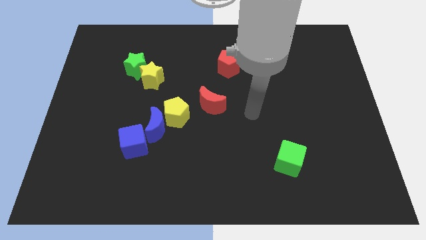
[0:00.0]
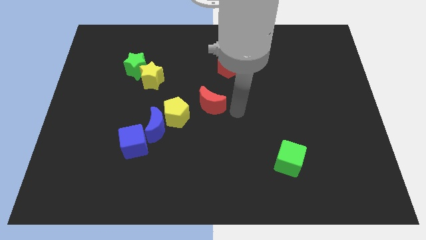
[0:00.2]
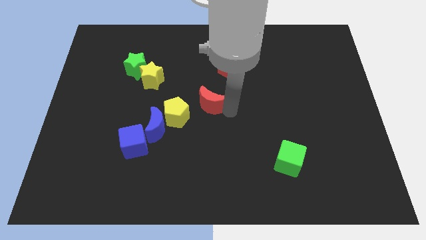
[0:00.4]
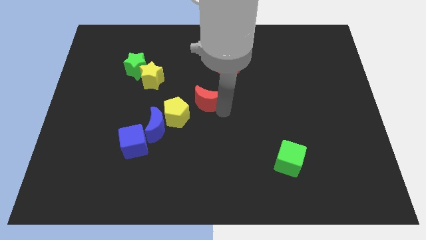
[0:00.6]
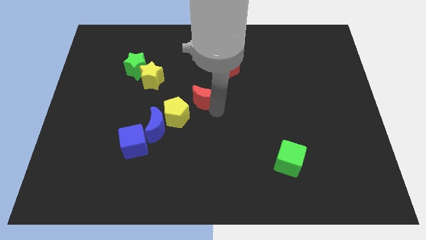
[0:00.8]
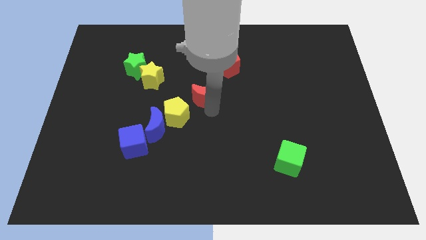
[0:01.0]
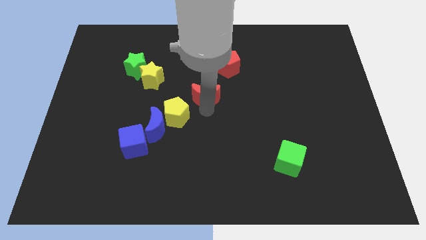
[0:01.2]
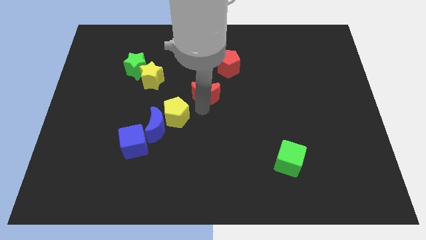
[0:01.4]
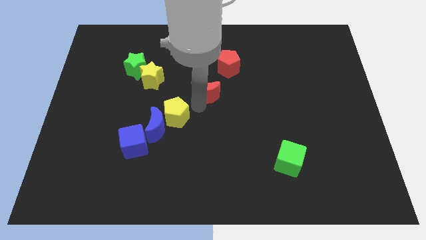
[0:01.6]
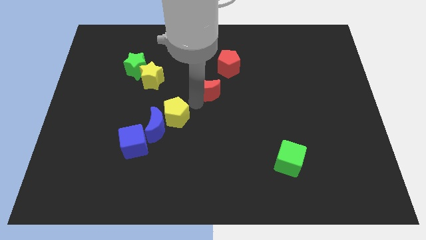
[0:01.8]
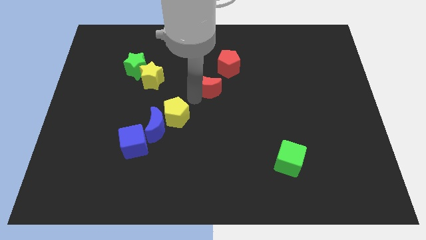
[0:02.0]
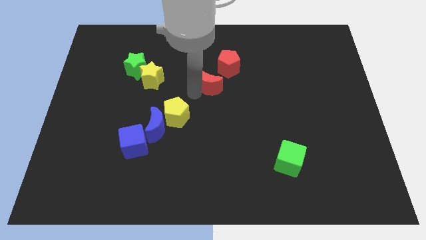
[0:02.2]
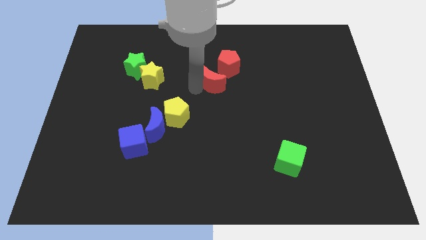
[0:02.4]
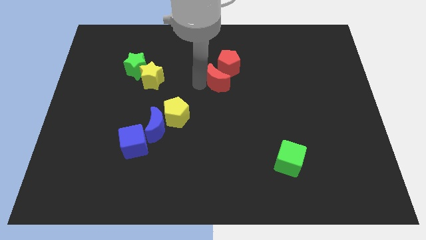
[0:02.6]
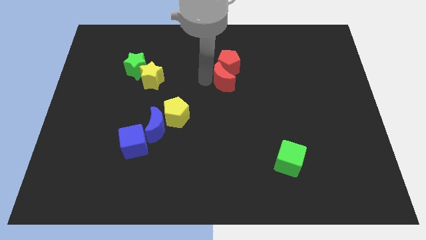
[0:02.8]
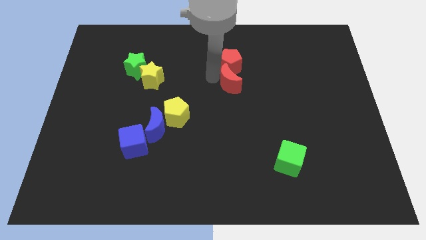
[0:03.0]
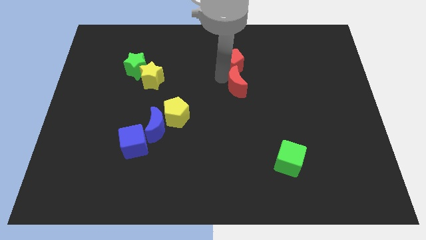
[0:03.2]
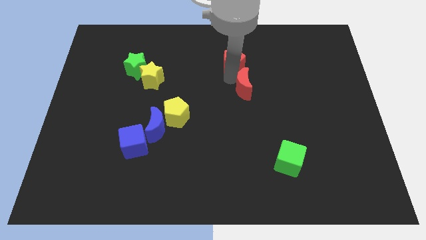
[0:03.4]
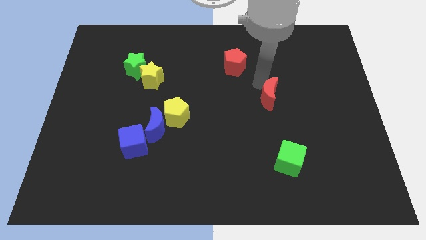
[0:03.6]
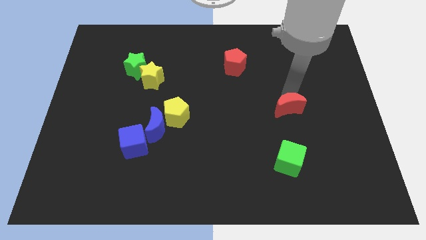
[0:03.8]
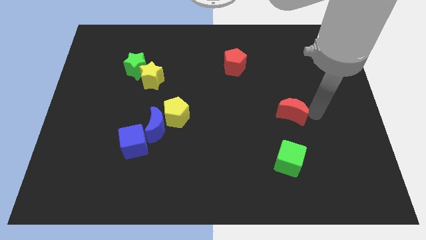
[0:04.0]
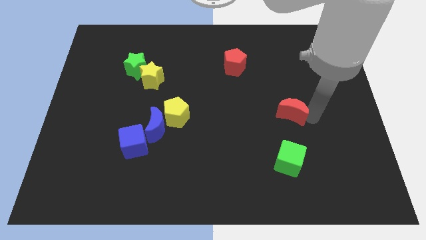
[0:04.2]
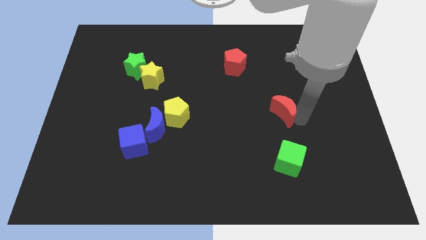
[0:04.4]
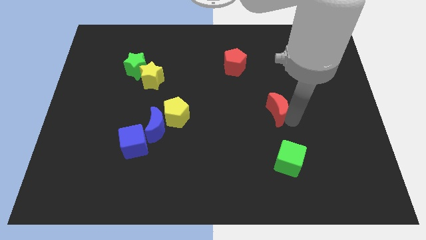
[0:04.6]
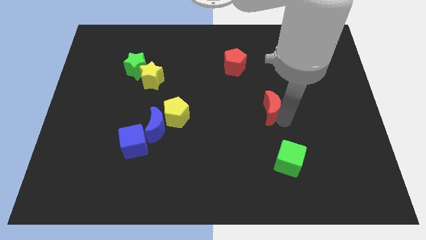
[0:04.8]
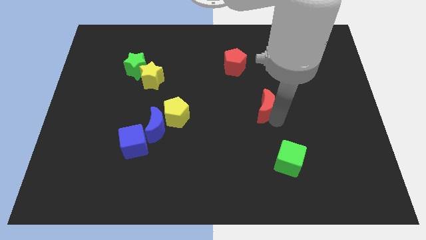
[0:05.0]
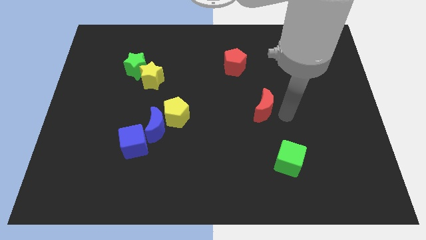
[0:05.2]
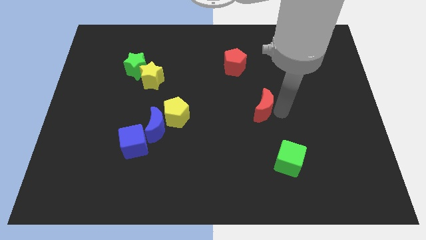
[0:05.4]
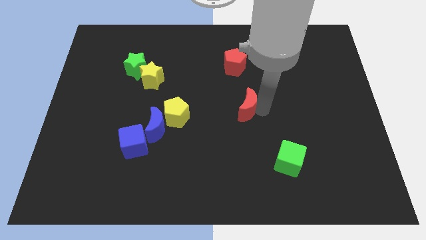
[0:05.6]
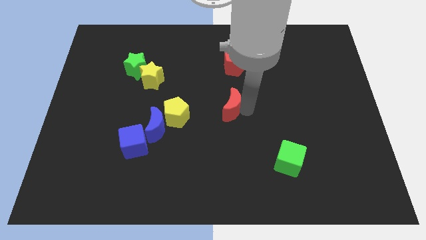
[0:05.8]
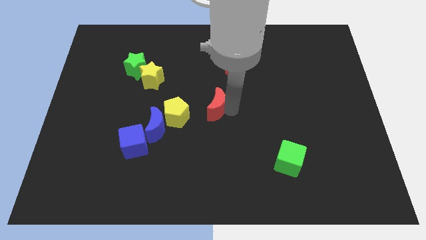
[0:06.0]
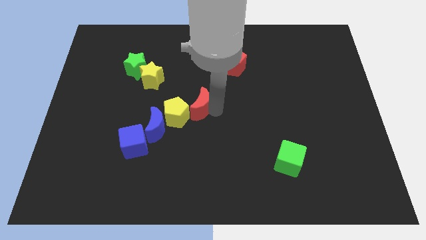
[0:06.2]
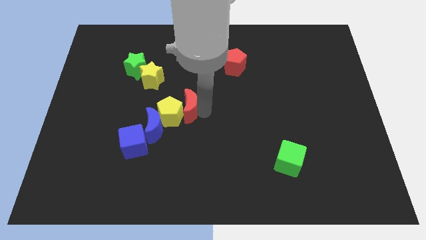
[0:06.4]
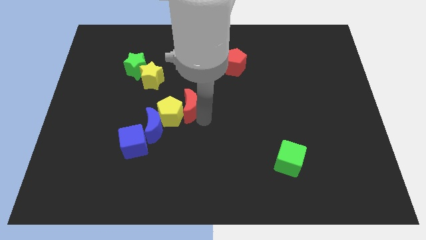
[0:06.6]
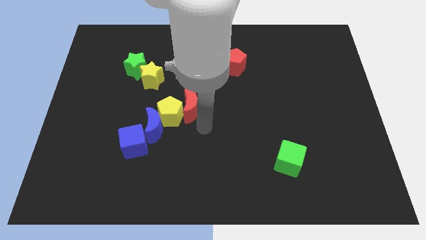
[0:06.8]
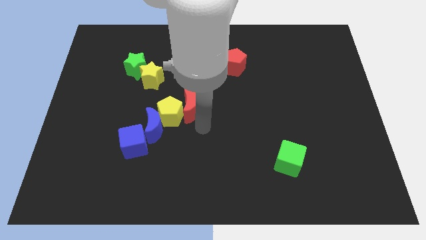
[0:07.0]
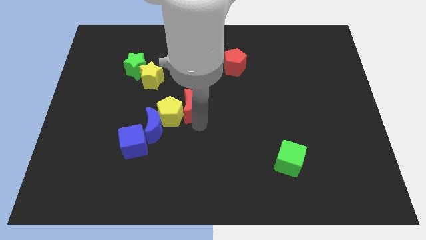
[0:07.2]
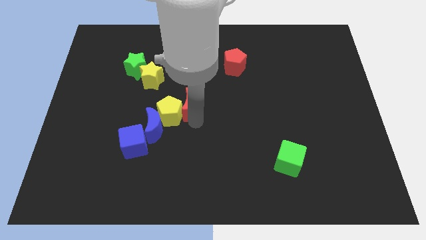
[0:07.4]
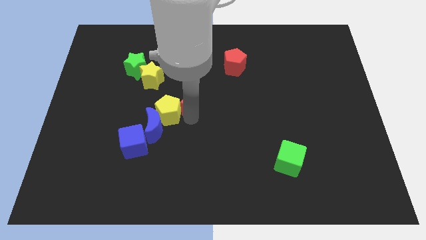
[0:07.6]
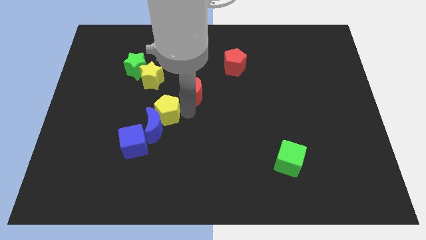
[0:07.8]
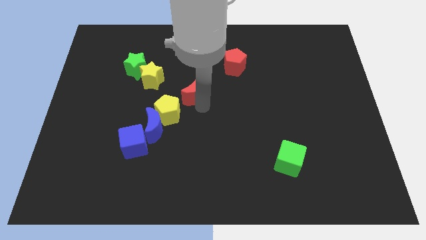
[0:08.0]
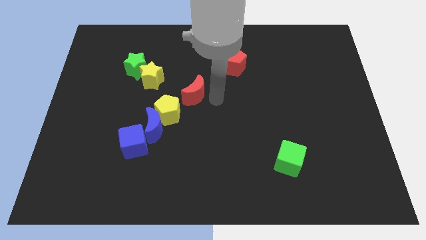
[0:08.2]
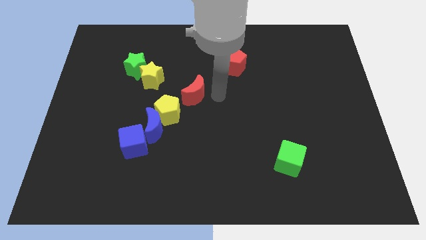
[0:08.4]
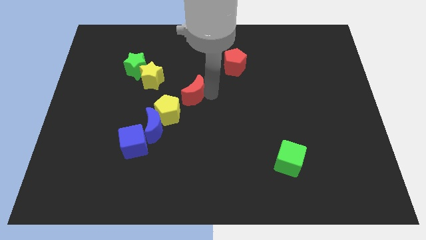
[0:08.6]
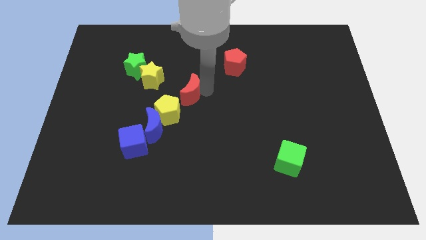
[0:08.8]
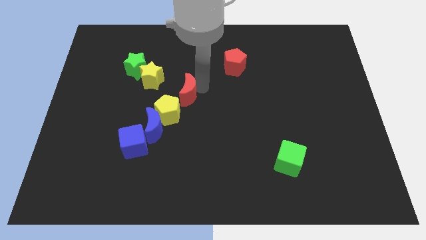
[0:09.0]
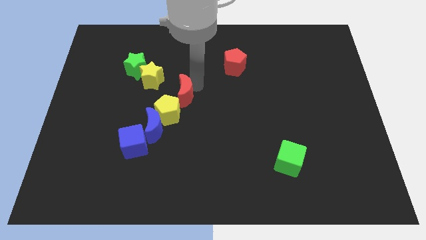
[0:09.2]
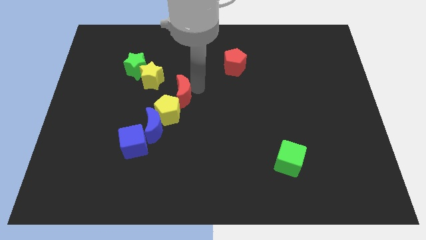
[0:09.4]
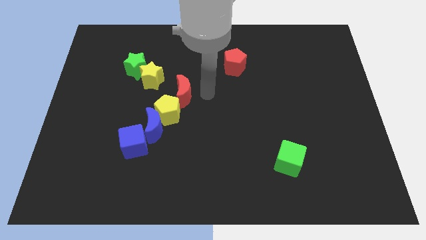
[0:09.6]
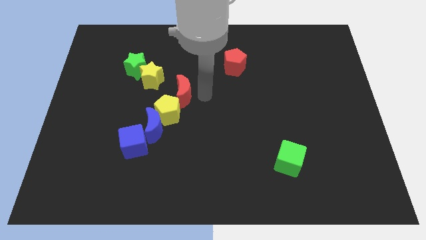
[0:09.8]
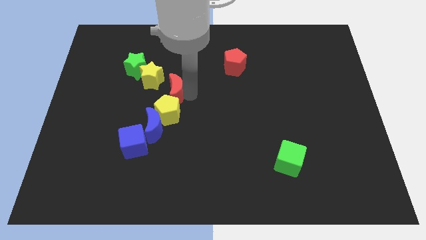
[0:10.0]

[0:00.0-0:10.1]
push the red moon above the blue moon

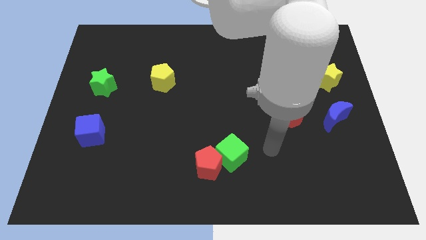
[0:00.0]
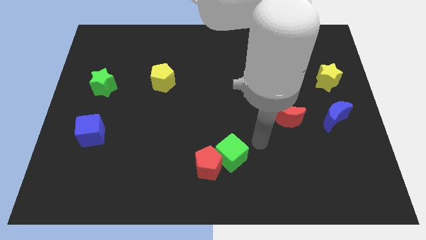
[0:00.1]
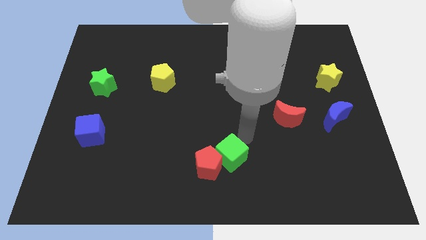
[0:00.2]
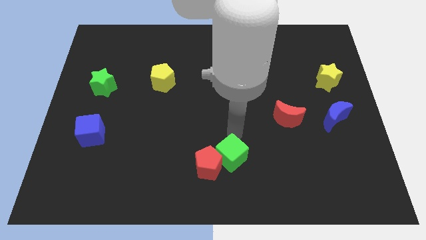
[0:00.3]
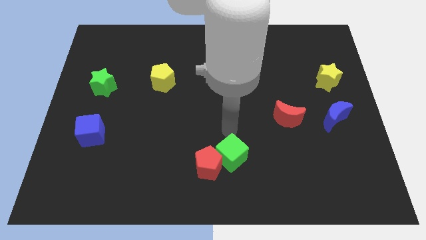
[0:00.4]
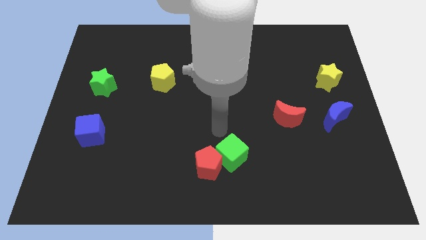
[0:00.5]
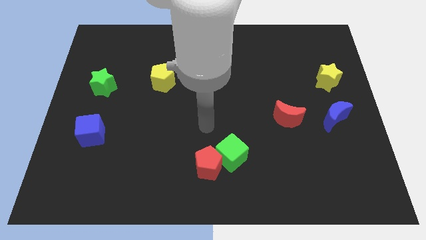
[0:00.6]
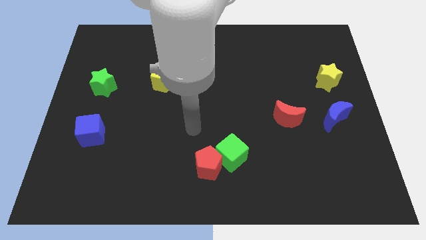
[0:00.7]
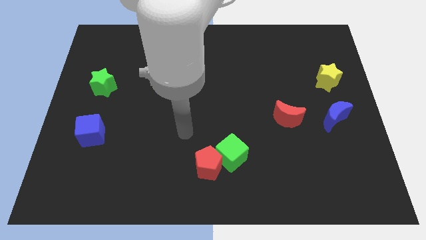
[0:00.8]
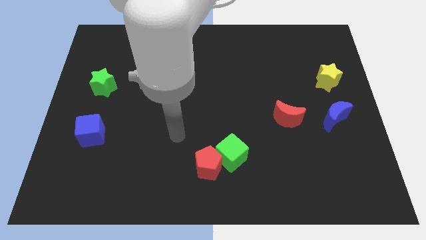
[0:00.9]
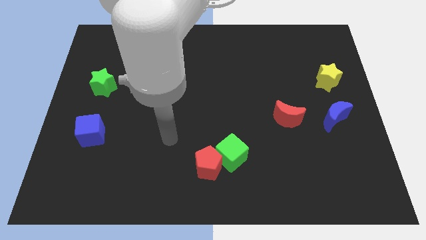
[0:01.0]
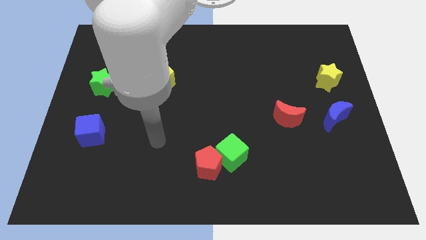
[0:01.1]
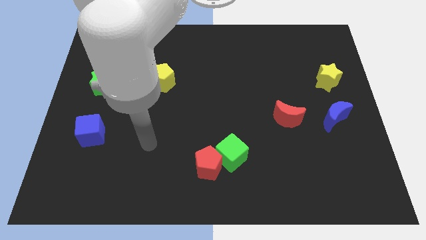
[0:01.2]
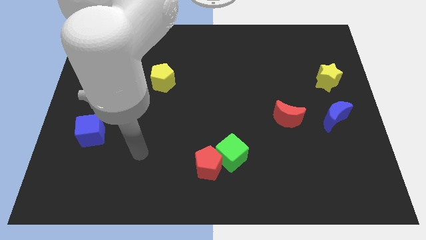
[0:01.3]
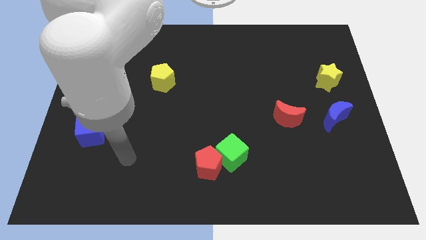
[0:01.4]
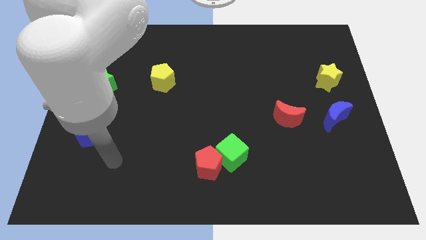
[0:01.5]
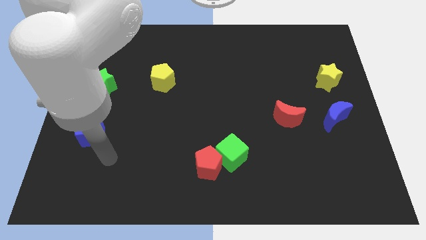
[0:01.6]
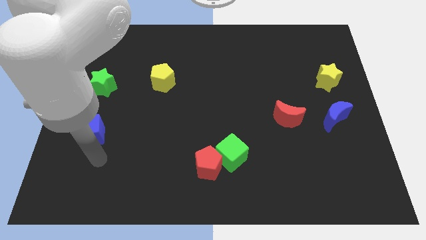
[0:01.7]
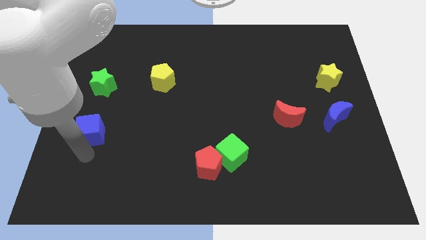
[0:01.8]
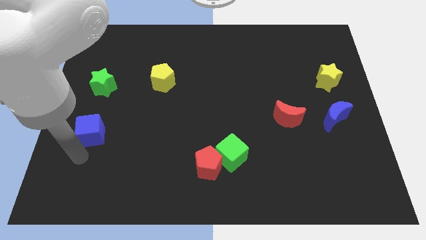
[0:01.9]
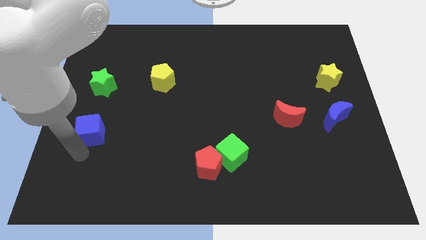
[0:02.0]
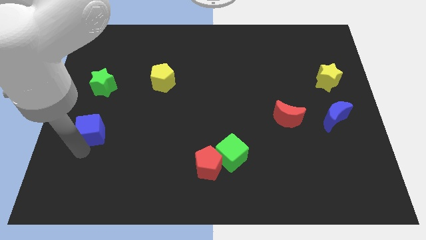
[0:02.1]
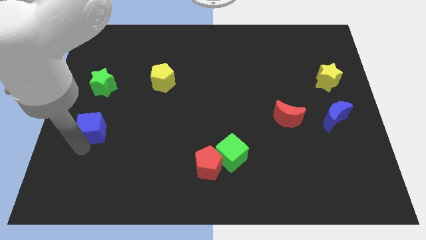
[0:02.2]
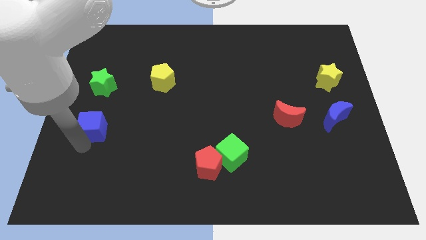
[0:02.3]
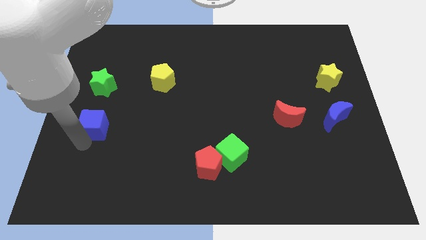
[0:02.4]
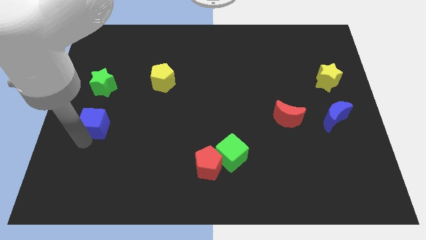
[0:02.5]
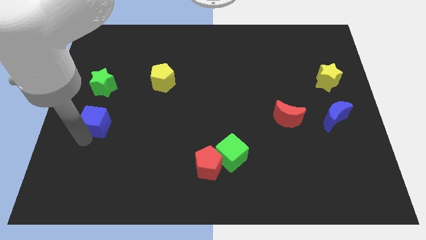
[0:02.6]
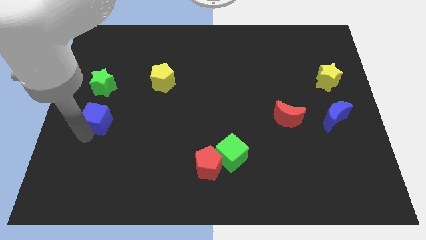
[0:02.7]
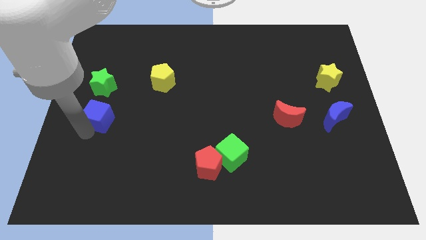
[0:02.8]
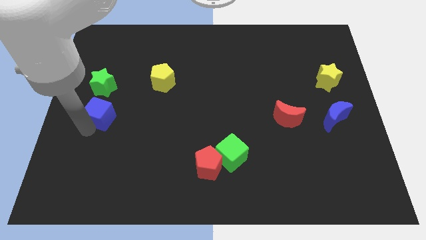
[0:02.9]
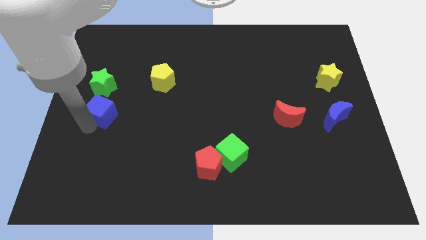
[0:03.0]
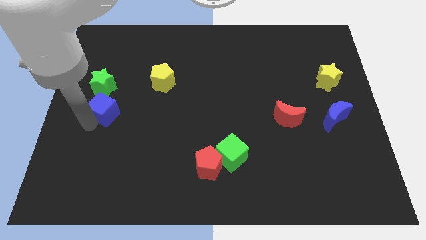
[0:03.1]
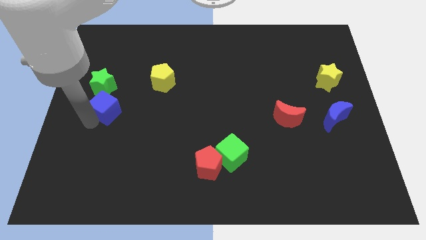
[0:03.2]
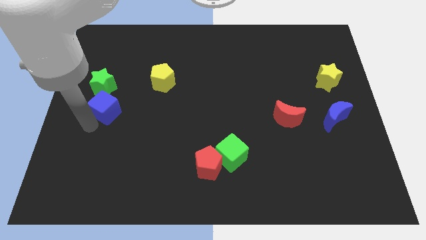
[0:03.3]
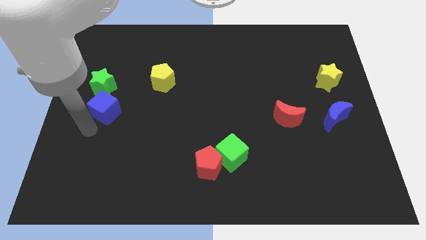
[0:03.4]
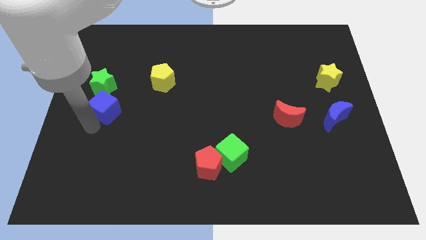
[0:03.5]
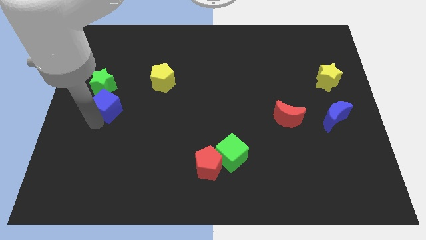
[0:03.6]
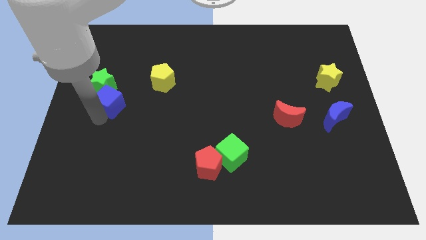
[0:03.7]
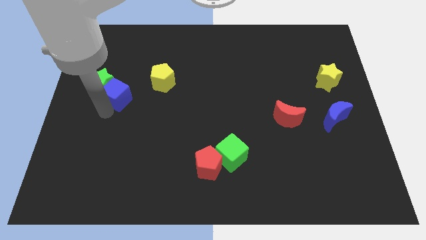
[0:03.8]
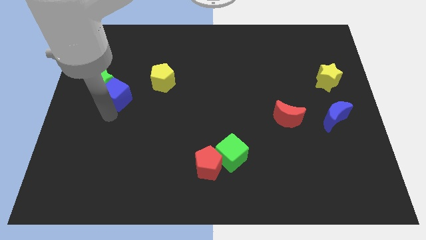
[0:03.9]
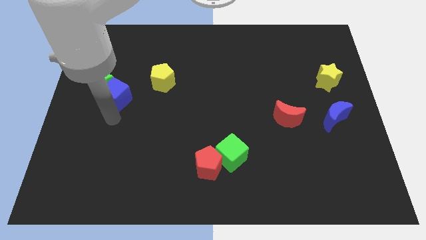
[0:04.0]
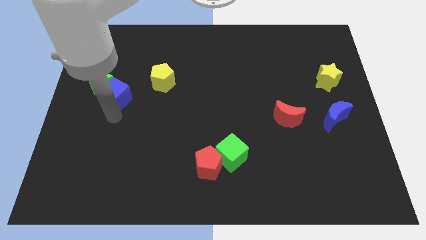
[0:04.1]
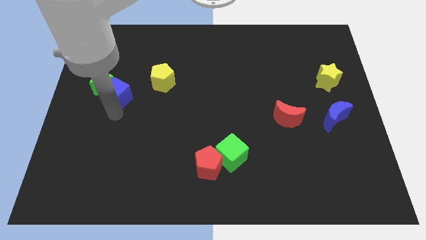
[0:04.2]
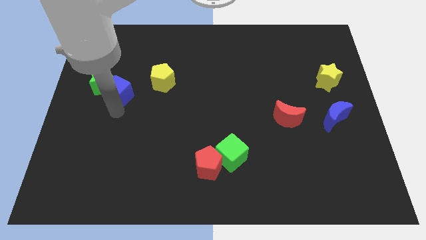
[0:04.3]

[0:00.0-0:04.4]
move the blue cube just left of the yellow pentagon
